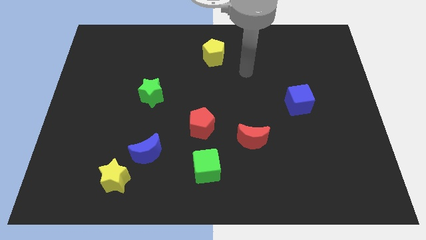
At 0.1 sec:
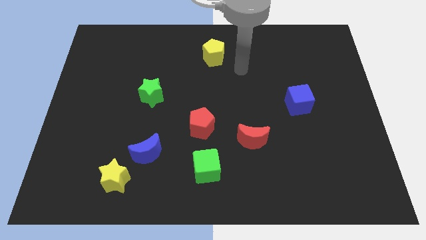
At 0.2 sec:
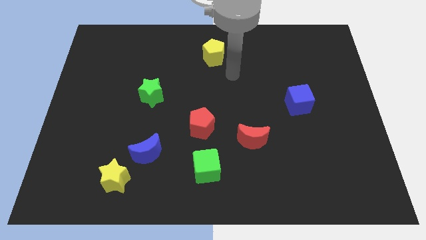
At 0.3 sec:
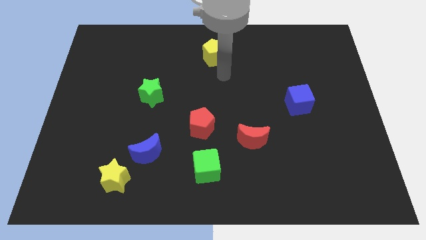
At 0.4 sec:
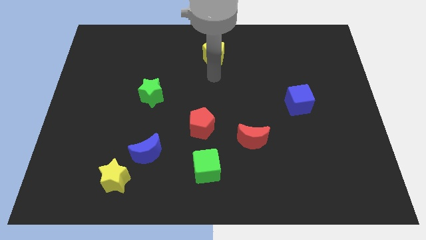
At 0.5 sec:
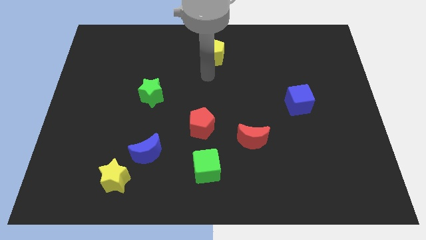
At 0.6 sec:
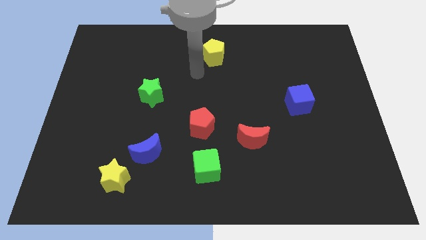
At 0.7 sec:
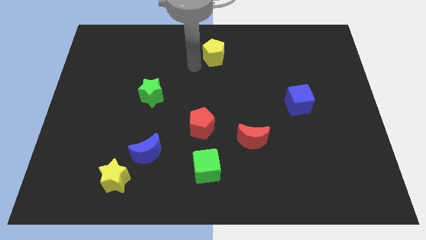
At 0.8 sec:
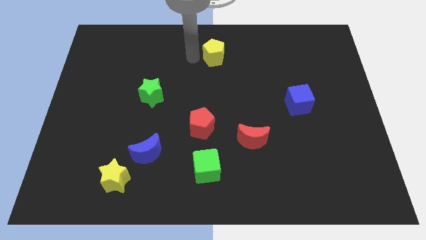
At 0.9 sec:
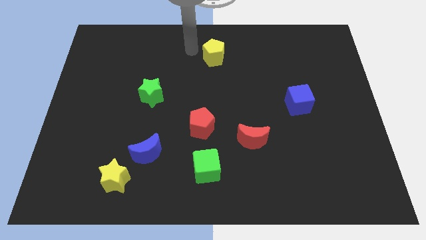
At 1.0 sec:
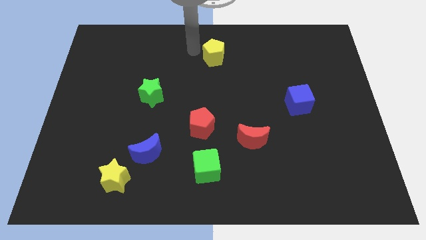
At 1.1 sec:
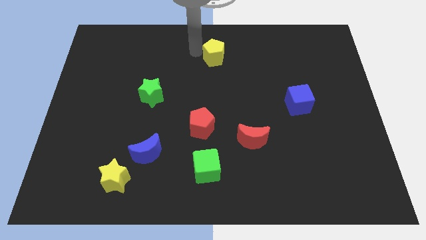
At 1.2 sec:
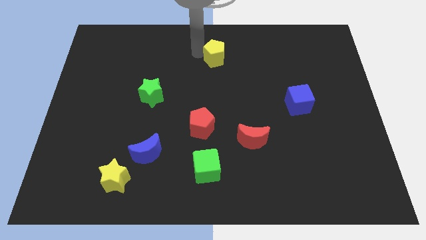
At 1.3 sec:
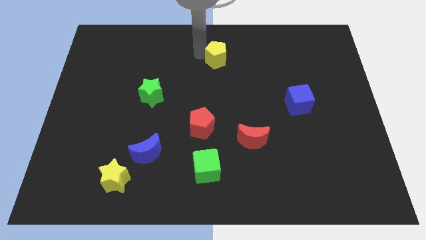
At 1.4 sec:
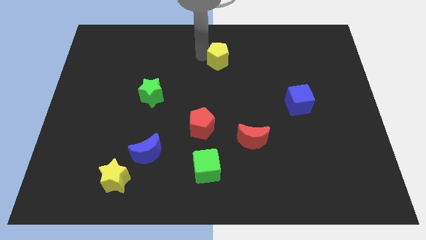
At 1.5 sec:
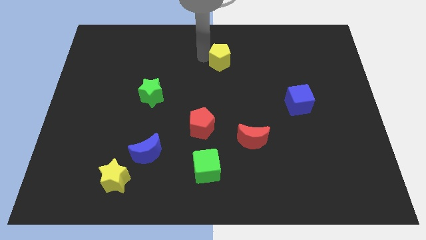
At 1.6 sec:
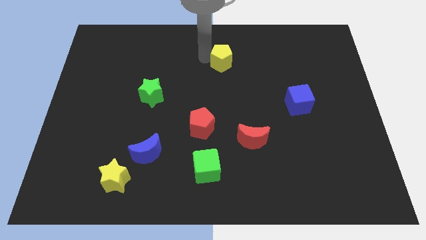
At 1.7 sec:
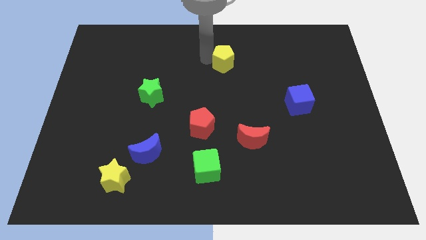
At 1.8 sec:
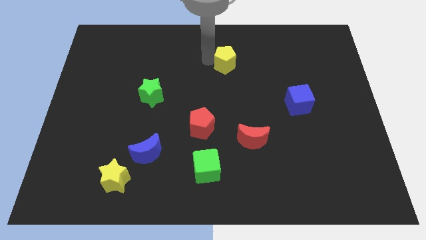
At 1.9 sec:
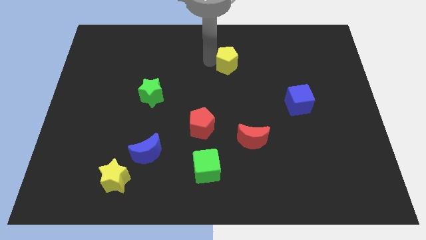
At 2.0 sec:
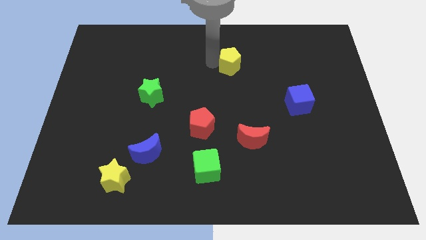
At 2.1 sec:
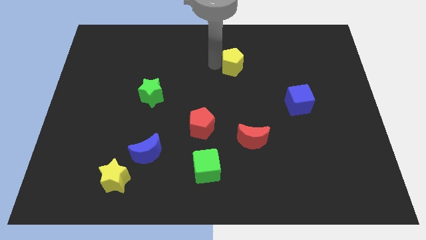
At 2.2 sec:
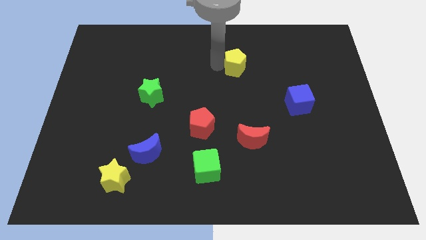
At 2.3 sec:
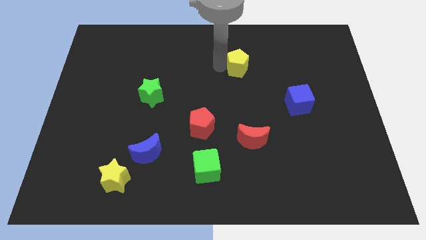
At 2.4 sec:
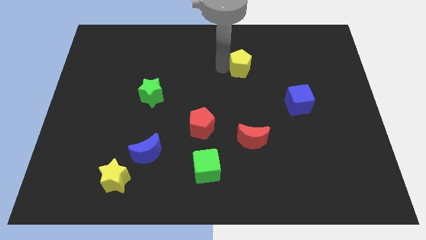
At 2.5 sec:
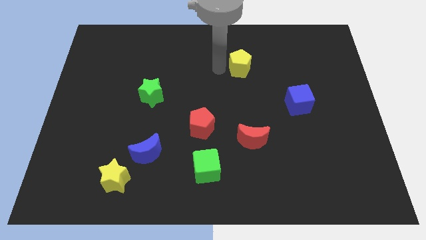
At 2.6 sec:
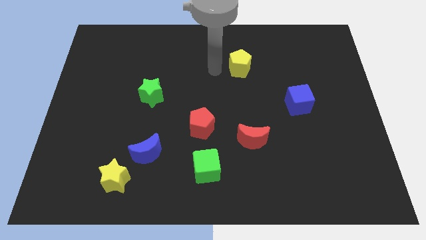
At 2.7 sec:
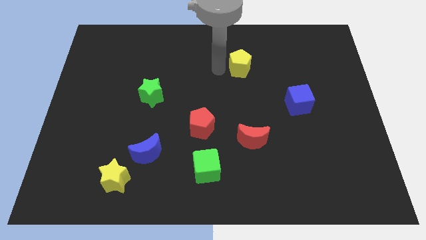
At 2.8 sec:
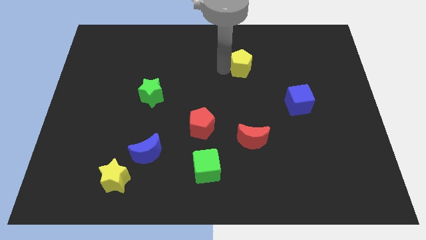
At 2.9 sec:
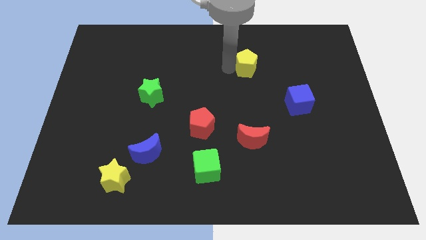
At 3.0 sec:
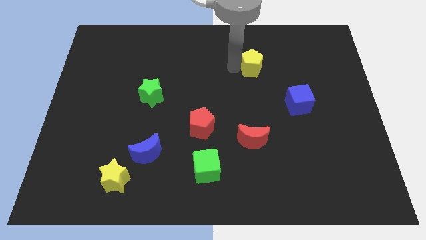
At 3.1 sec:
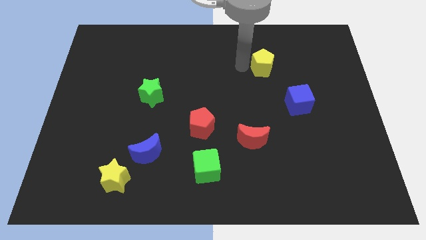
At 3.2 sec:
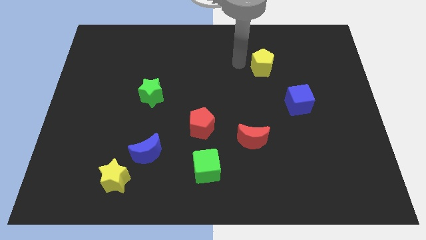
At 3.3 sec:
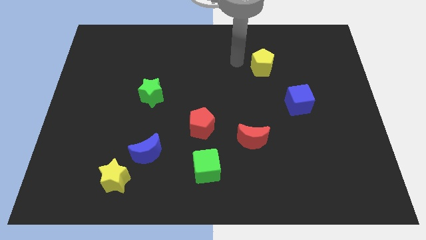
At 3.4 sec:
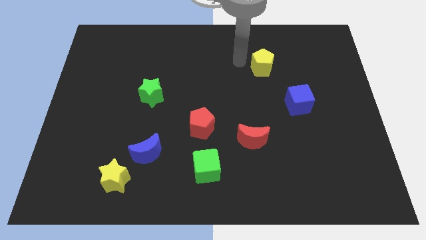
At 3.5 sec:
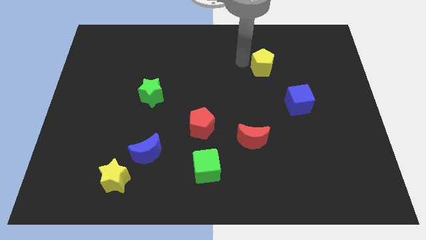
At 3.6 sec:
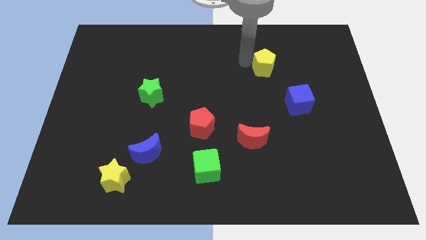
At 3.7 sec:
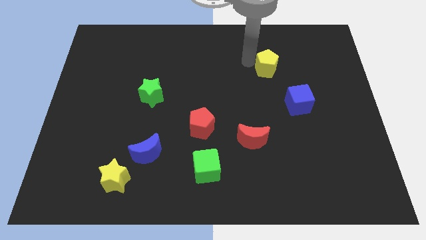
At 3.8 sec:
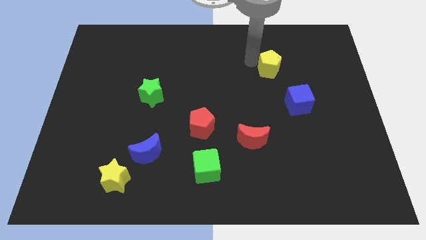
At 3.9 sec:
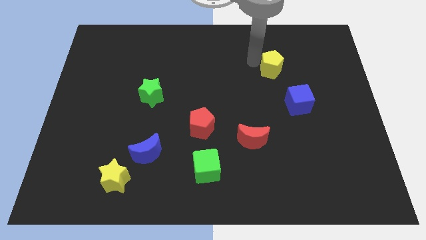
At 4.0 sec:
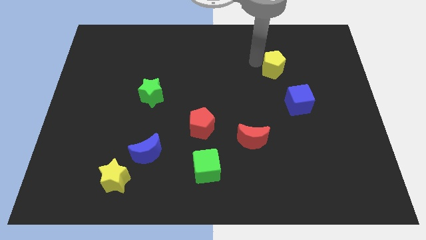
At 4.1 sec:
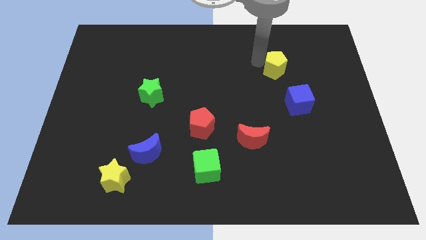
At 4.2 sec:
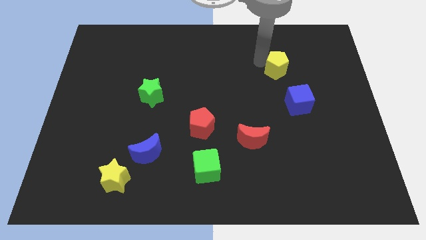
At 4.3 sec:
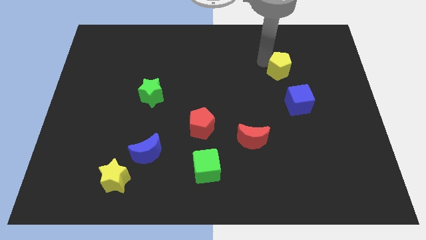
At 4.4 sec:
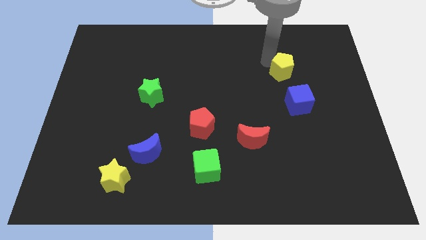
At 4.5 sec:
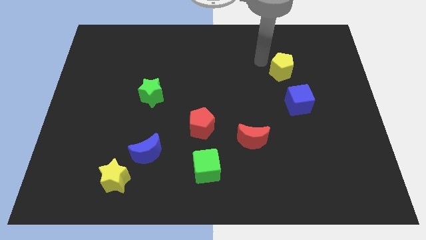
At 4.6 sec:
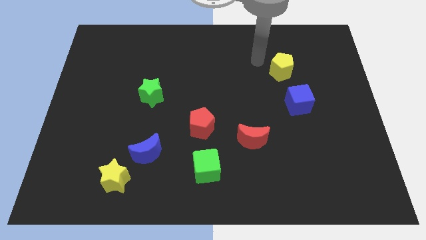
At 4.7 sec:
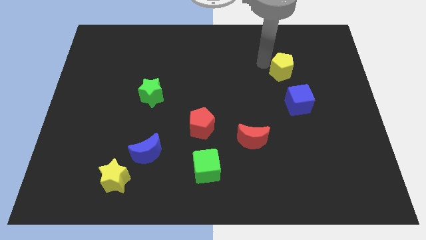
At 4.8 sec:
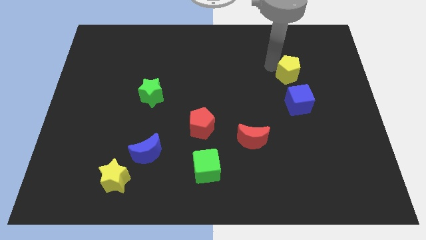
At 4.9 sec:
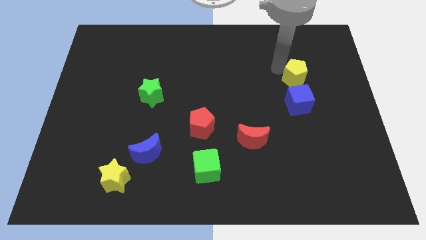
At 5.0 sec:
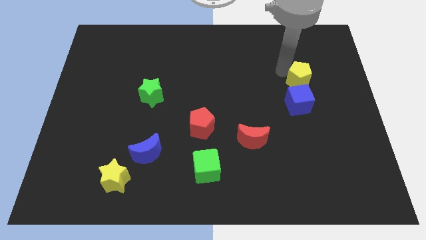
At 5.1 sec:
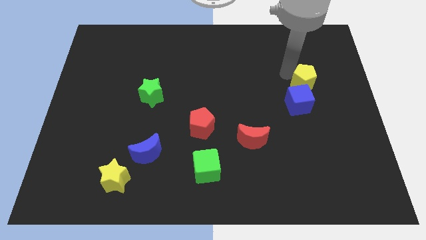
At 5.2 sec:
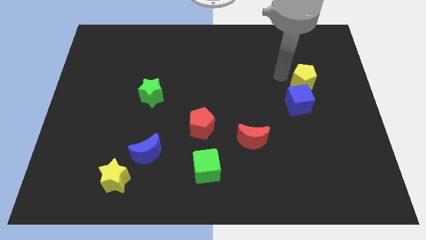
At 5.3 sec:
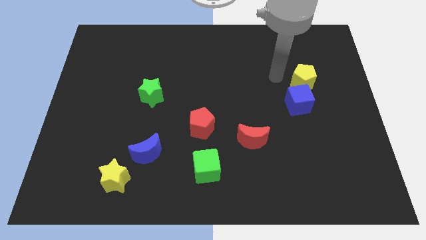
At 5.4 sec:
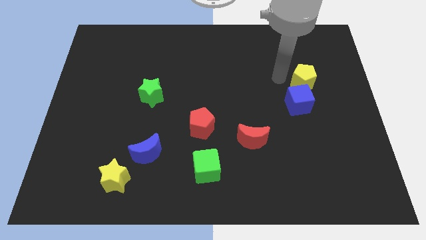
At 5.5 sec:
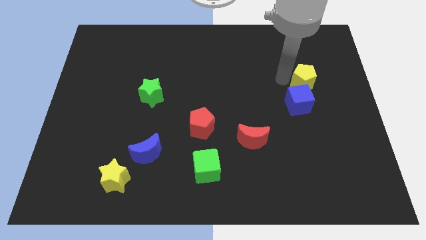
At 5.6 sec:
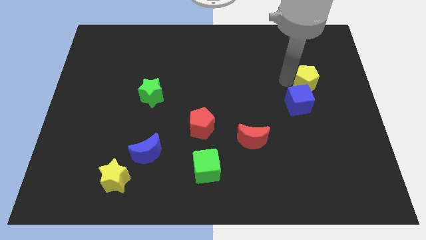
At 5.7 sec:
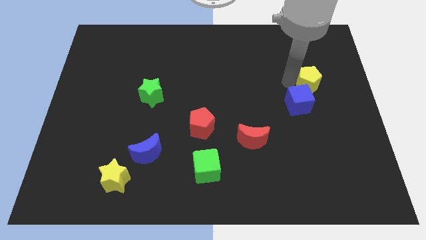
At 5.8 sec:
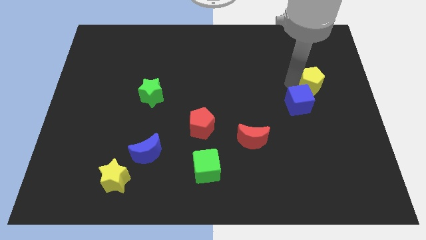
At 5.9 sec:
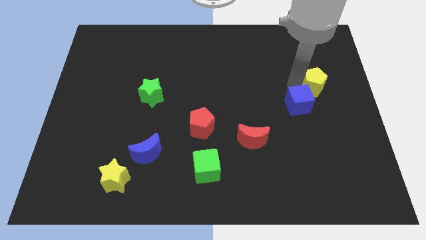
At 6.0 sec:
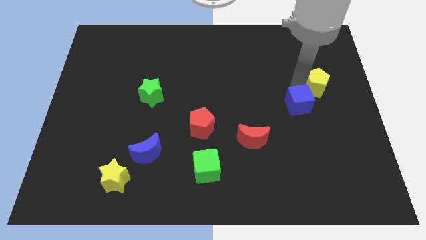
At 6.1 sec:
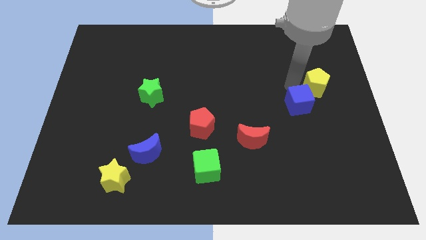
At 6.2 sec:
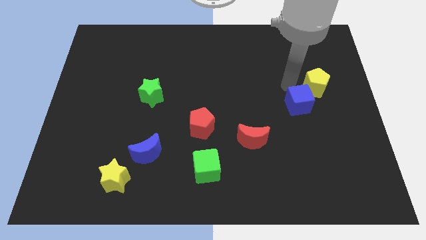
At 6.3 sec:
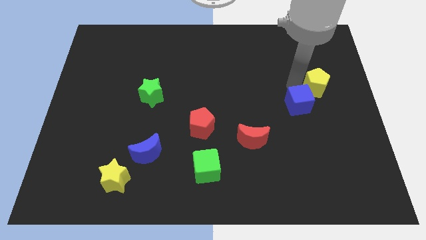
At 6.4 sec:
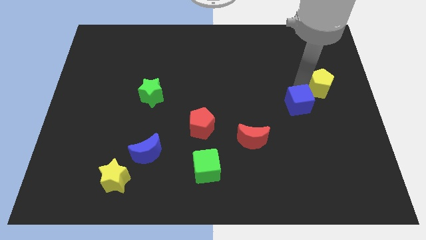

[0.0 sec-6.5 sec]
put the yellow pentagon to the center right

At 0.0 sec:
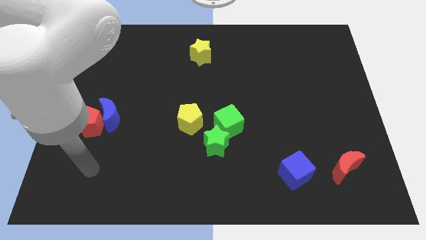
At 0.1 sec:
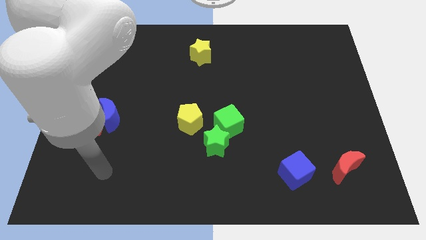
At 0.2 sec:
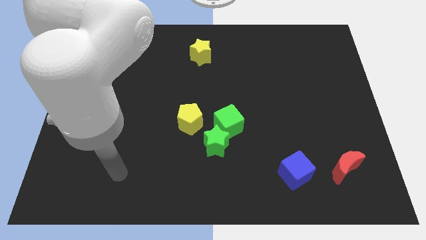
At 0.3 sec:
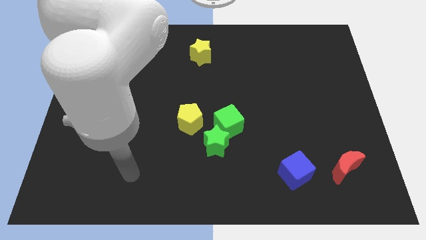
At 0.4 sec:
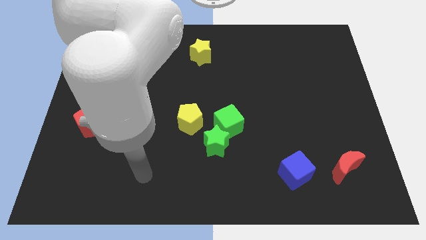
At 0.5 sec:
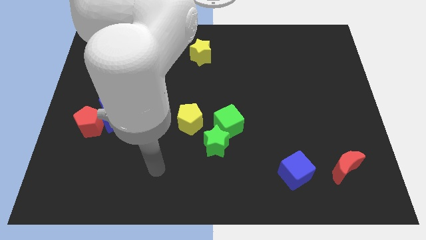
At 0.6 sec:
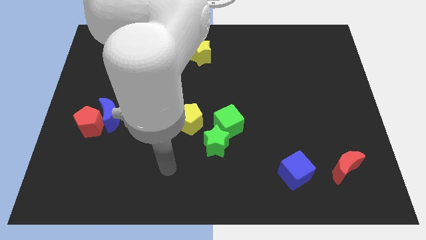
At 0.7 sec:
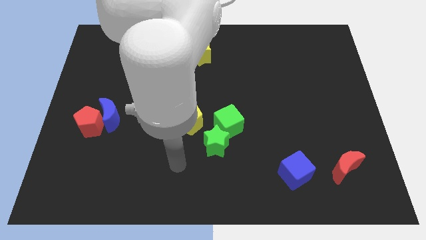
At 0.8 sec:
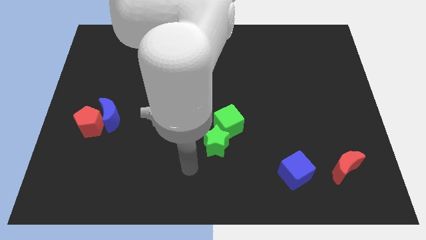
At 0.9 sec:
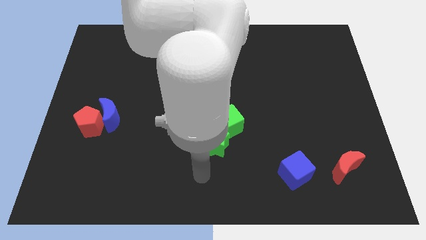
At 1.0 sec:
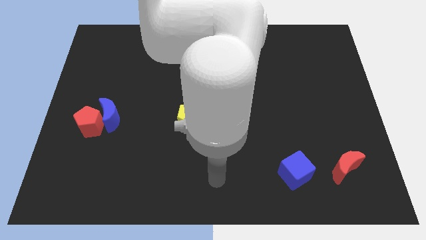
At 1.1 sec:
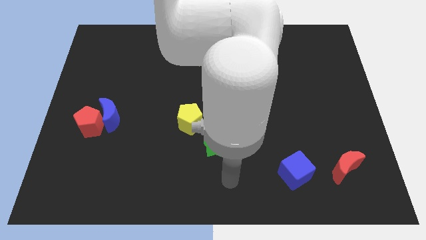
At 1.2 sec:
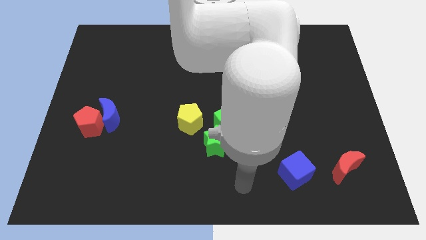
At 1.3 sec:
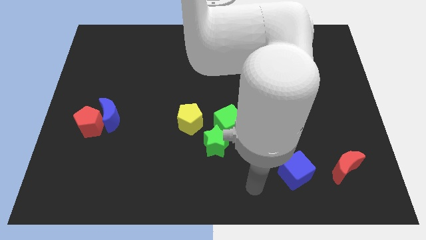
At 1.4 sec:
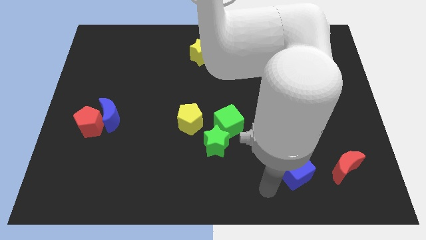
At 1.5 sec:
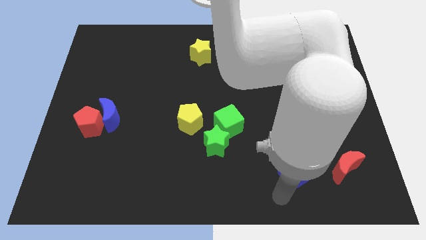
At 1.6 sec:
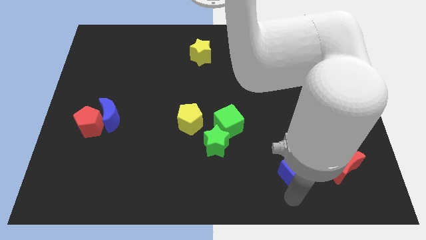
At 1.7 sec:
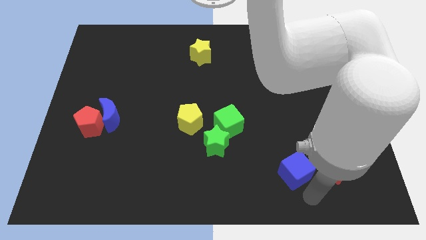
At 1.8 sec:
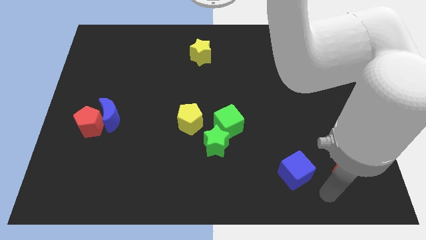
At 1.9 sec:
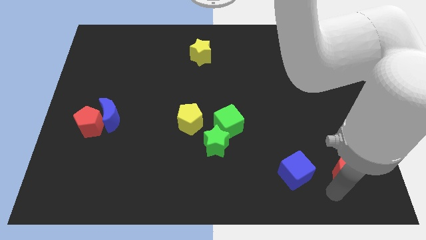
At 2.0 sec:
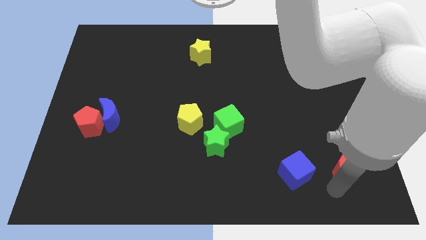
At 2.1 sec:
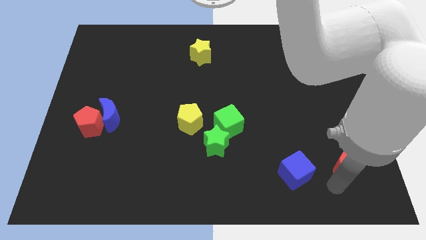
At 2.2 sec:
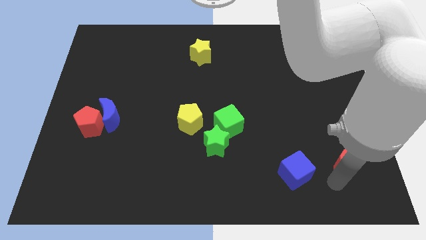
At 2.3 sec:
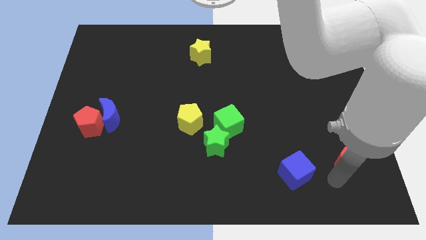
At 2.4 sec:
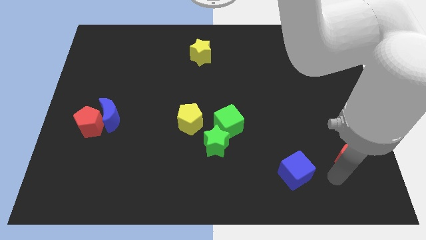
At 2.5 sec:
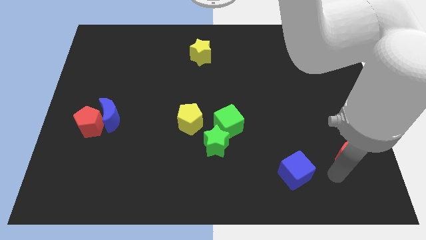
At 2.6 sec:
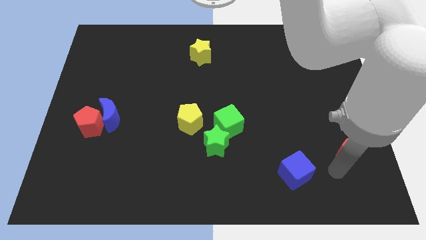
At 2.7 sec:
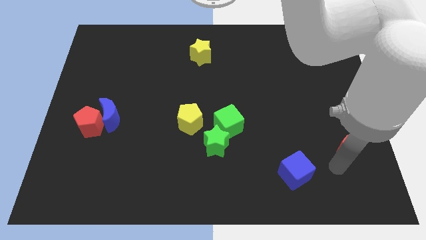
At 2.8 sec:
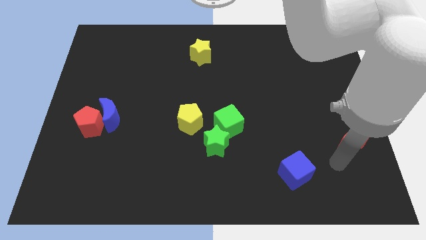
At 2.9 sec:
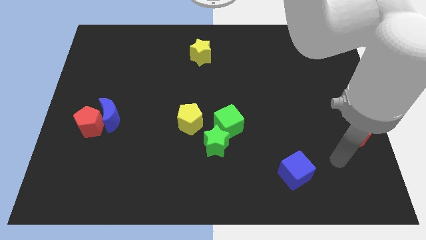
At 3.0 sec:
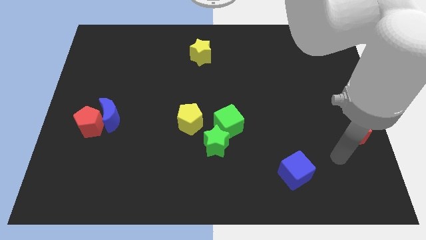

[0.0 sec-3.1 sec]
put the red moon to the right side
